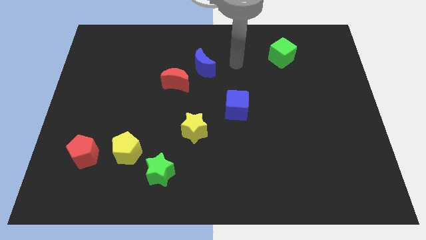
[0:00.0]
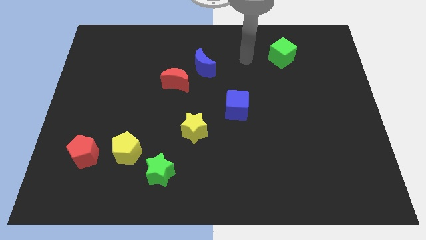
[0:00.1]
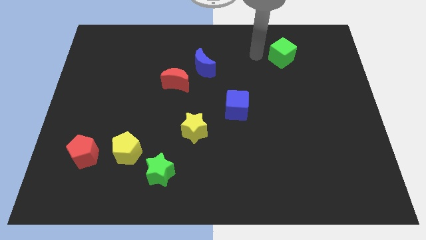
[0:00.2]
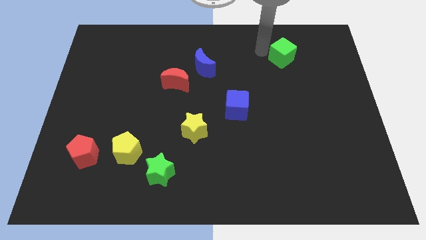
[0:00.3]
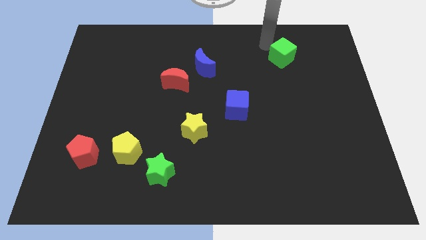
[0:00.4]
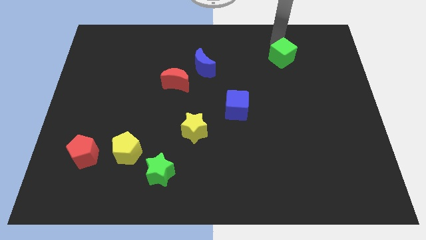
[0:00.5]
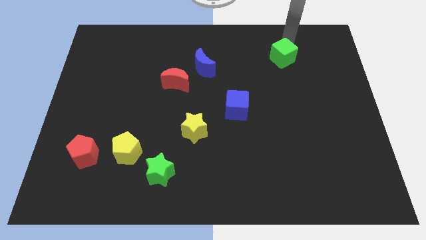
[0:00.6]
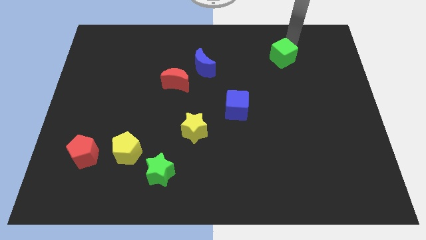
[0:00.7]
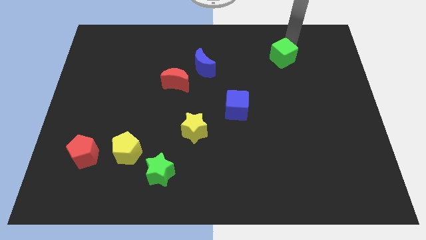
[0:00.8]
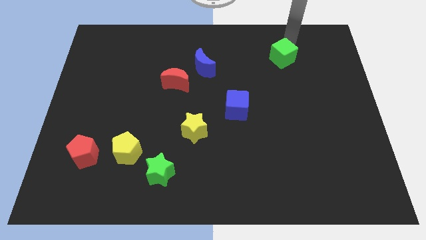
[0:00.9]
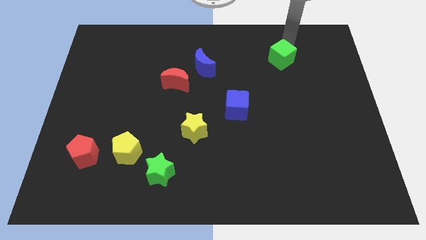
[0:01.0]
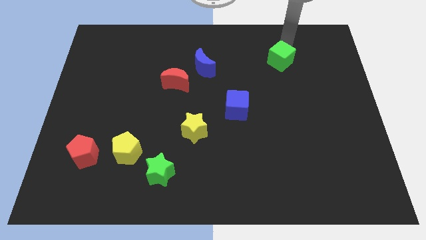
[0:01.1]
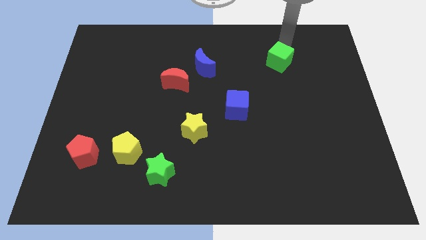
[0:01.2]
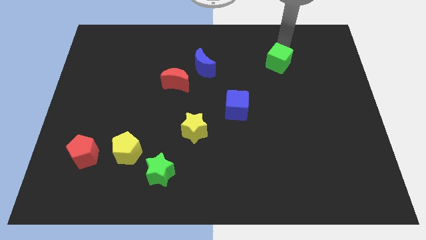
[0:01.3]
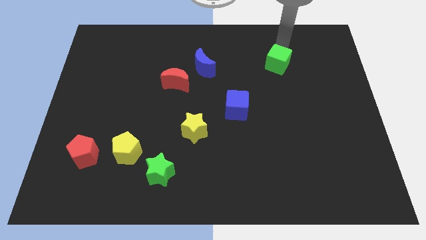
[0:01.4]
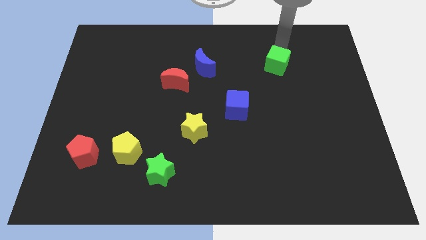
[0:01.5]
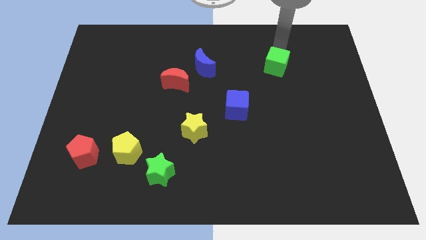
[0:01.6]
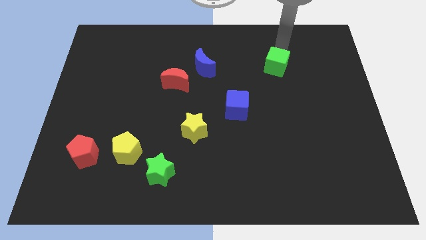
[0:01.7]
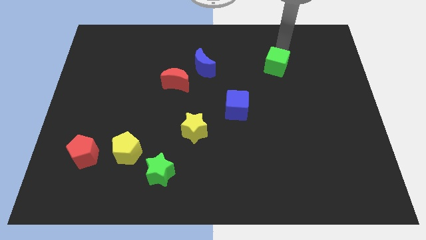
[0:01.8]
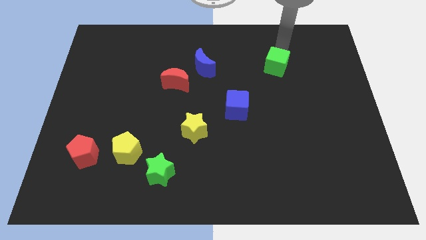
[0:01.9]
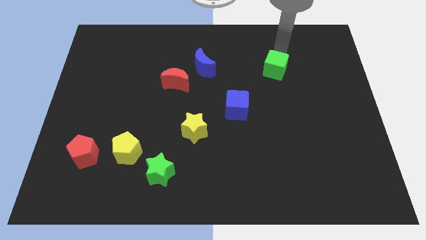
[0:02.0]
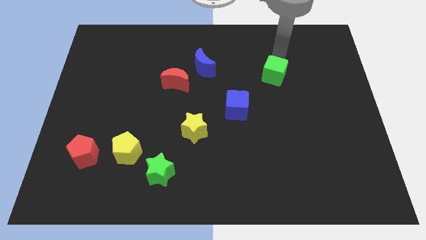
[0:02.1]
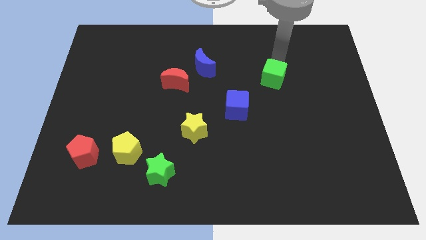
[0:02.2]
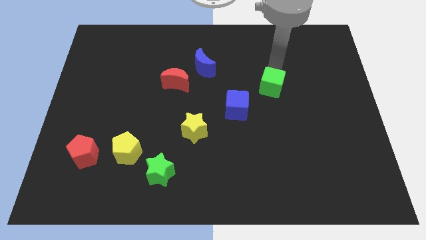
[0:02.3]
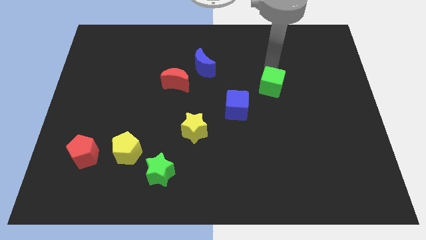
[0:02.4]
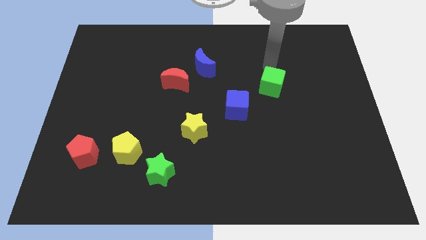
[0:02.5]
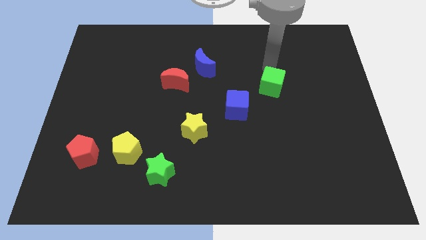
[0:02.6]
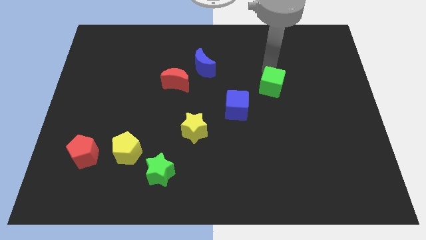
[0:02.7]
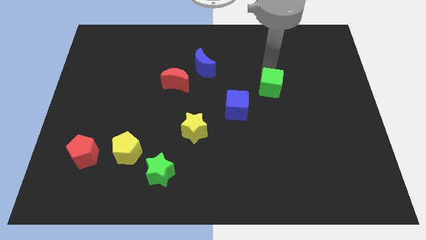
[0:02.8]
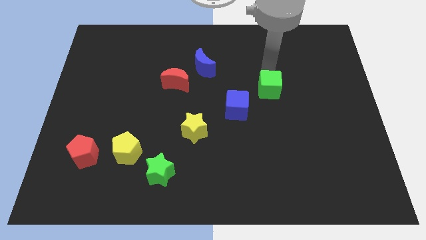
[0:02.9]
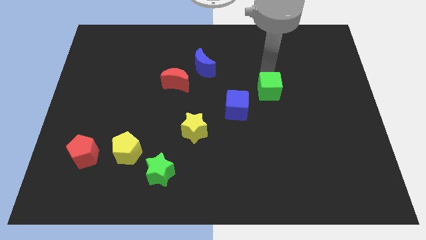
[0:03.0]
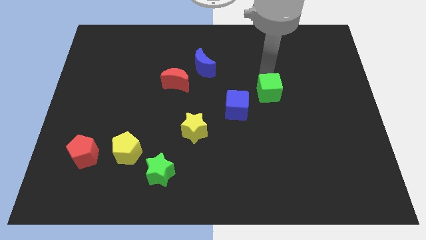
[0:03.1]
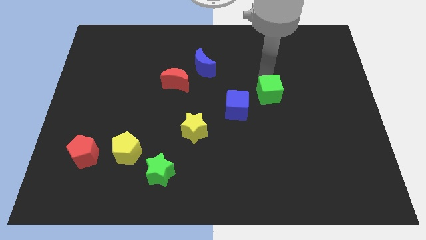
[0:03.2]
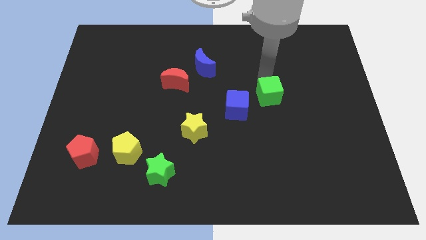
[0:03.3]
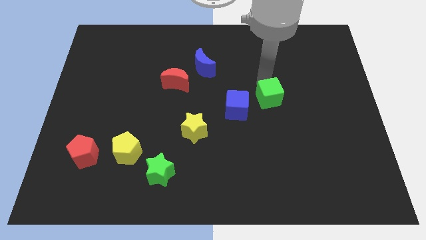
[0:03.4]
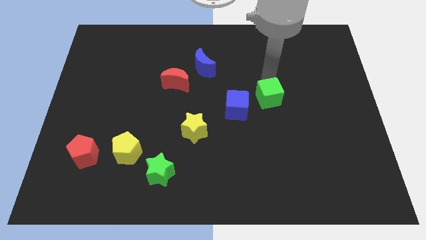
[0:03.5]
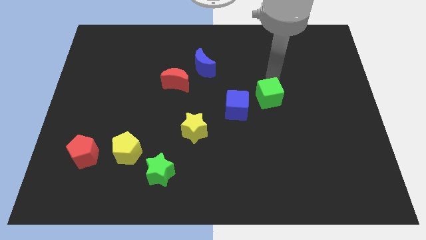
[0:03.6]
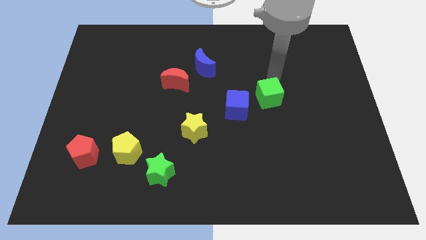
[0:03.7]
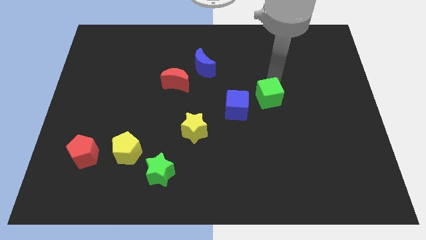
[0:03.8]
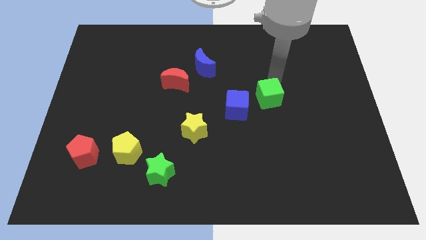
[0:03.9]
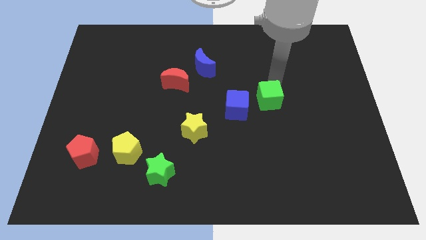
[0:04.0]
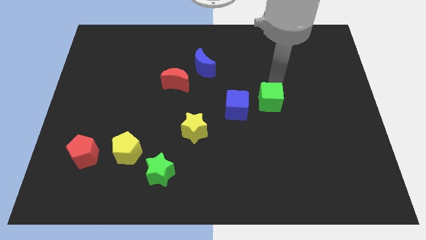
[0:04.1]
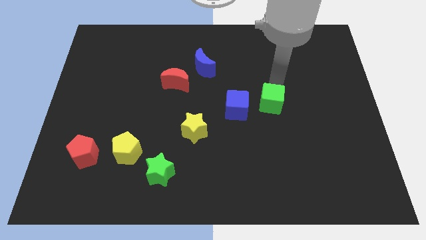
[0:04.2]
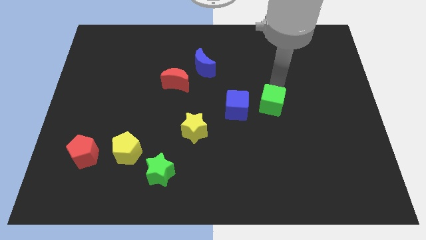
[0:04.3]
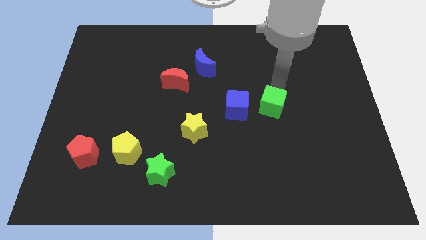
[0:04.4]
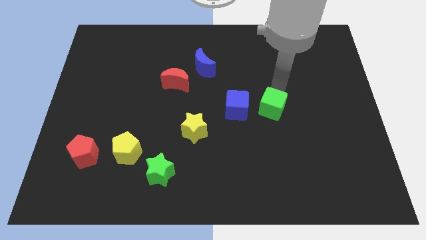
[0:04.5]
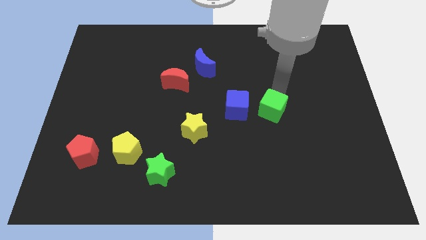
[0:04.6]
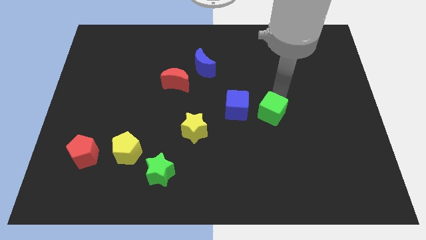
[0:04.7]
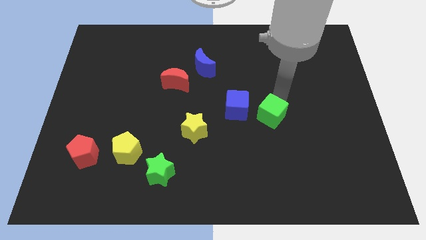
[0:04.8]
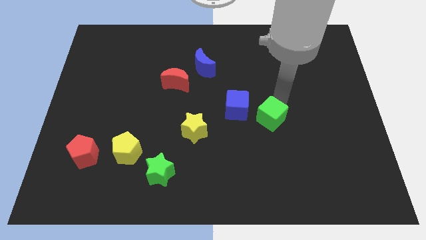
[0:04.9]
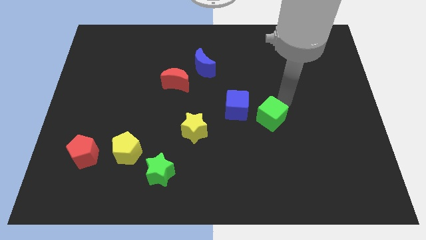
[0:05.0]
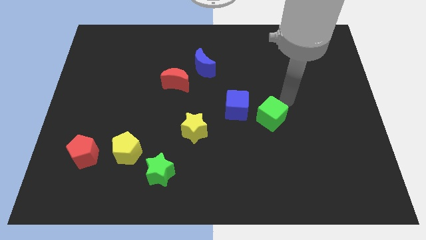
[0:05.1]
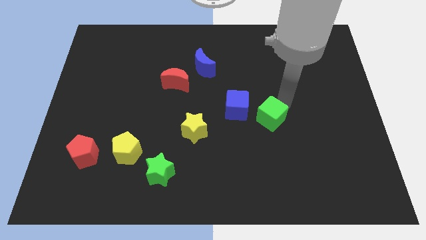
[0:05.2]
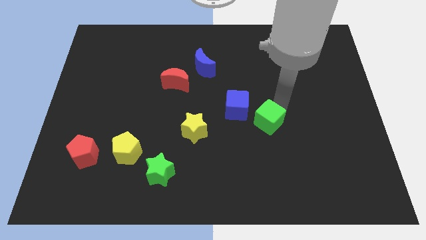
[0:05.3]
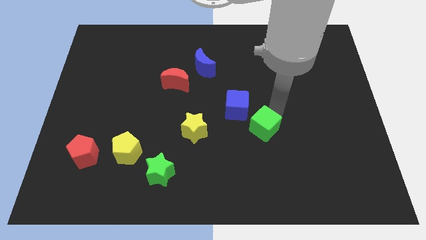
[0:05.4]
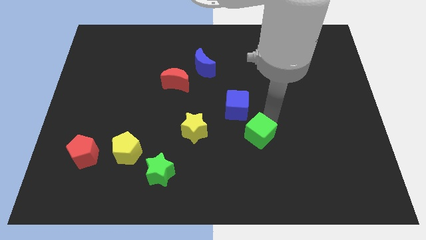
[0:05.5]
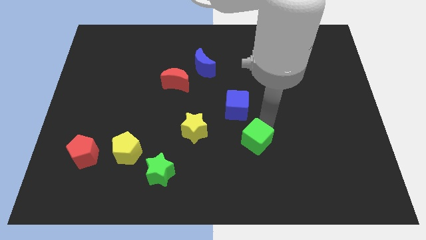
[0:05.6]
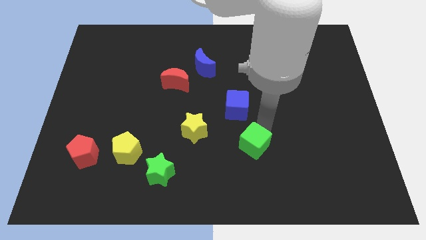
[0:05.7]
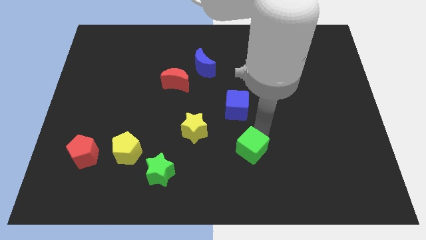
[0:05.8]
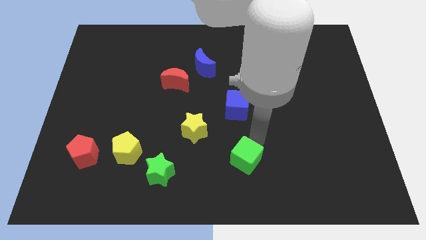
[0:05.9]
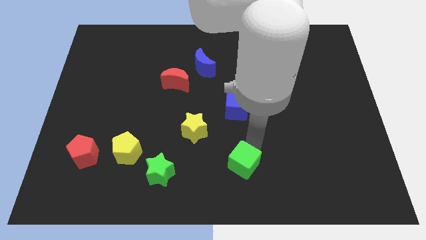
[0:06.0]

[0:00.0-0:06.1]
move the green cube to the bottom side
